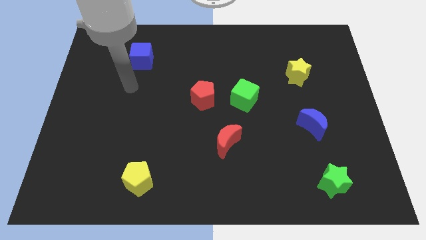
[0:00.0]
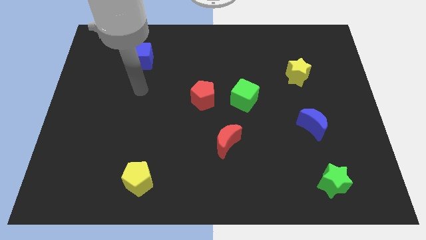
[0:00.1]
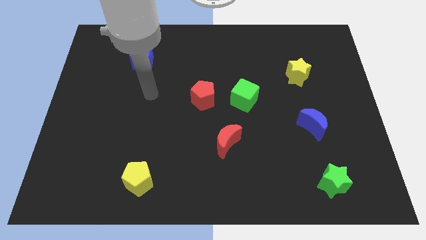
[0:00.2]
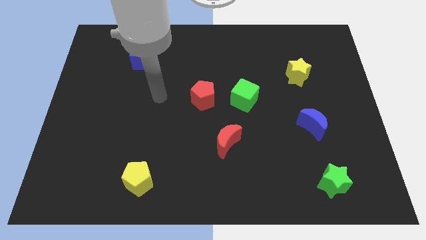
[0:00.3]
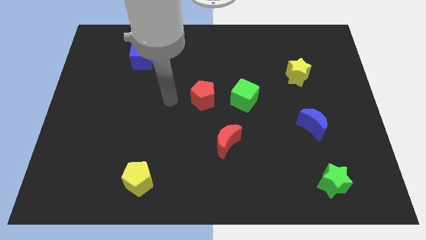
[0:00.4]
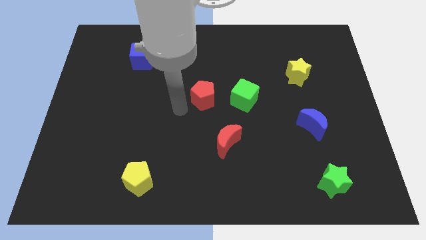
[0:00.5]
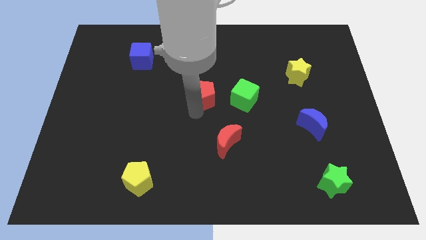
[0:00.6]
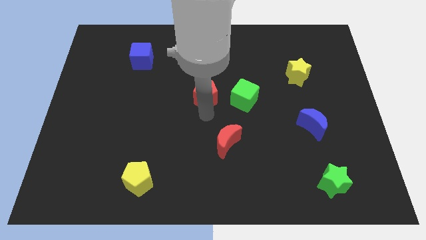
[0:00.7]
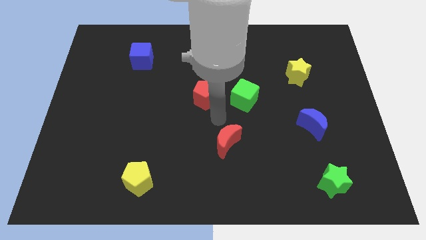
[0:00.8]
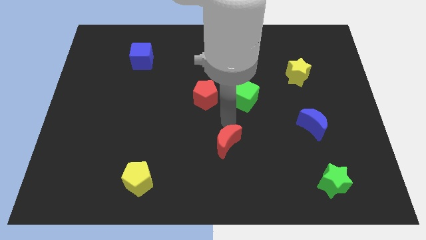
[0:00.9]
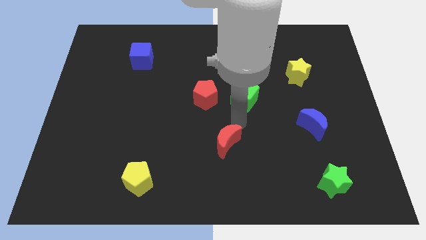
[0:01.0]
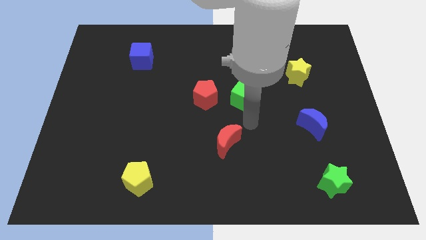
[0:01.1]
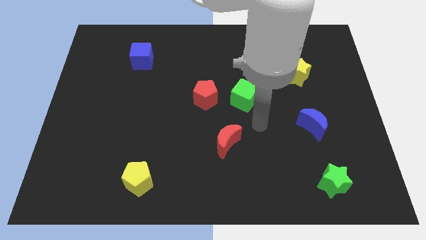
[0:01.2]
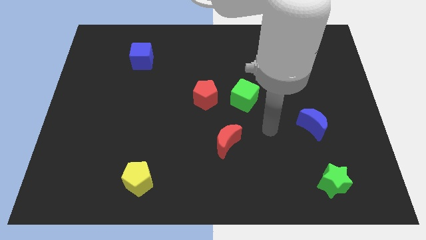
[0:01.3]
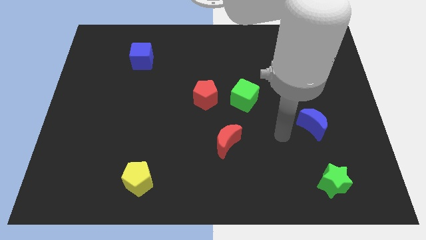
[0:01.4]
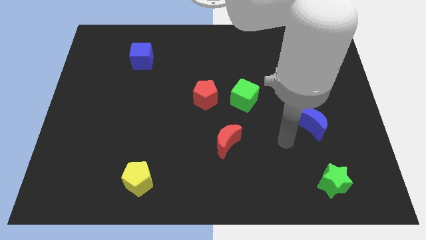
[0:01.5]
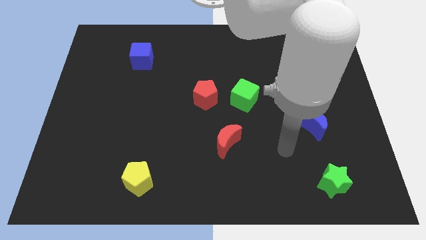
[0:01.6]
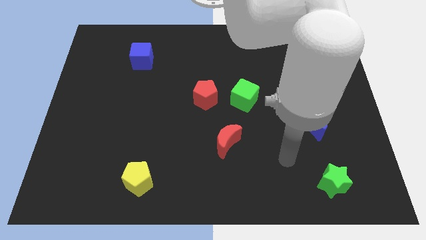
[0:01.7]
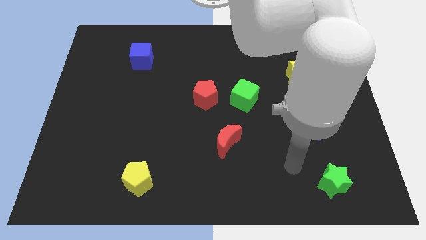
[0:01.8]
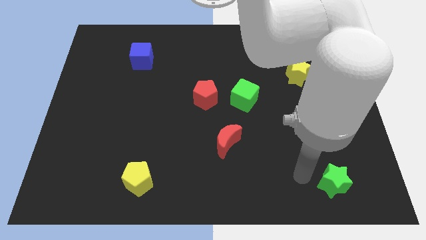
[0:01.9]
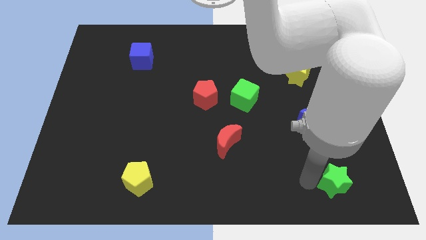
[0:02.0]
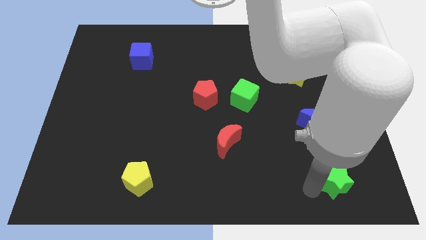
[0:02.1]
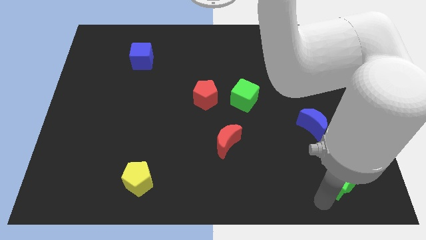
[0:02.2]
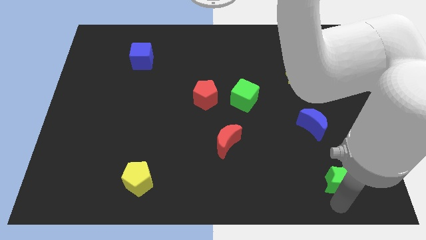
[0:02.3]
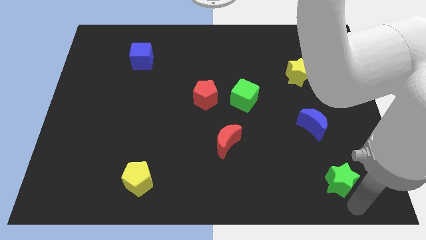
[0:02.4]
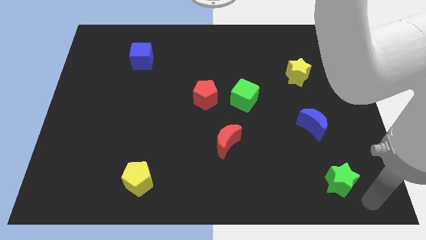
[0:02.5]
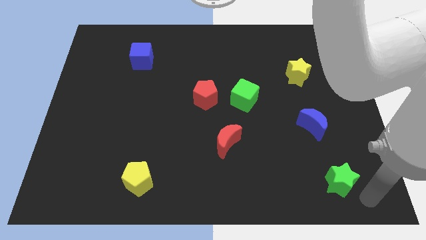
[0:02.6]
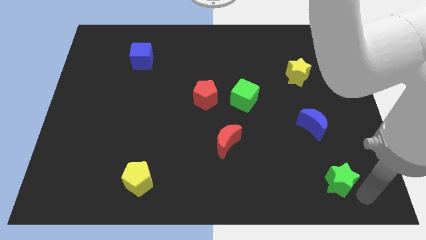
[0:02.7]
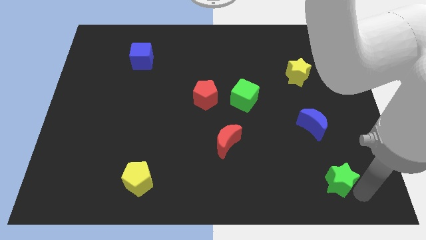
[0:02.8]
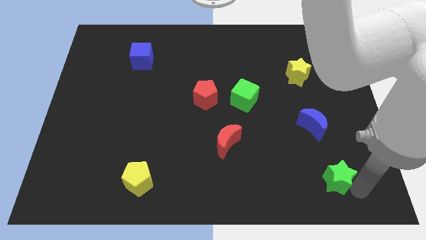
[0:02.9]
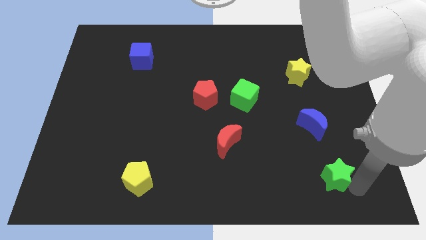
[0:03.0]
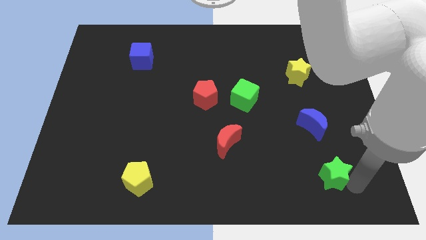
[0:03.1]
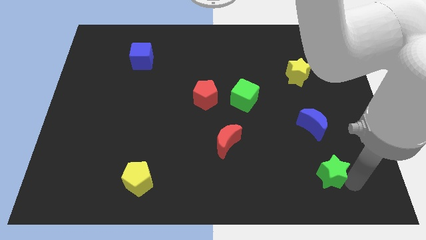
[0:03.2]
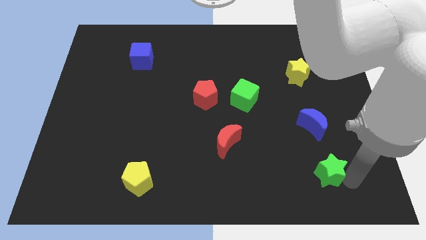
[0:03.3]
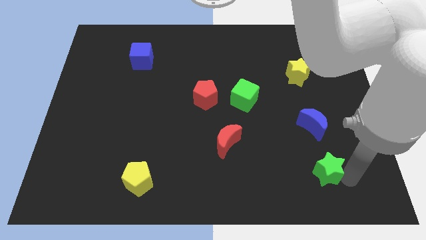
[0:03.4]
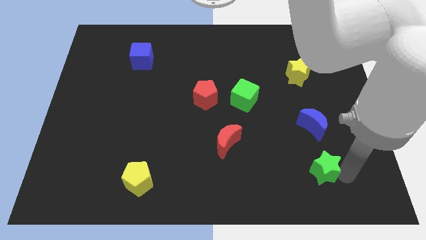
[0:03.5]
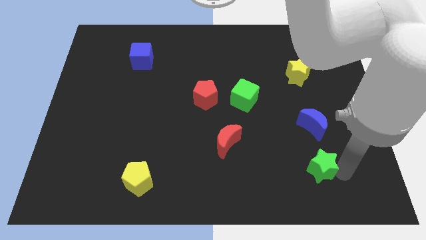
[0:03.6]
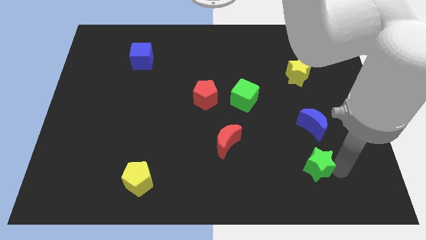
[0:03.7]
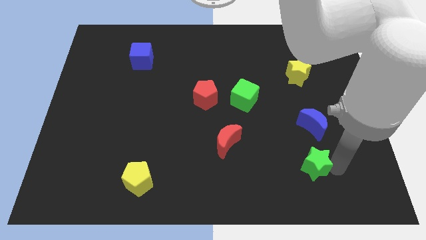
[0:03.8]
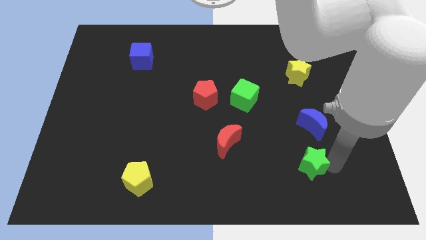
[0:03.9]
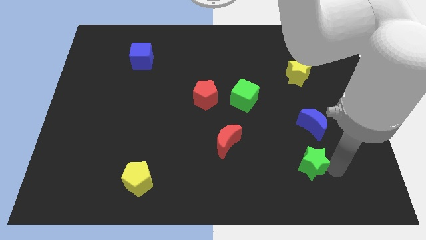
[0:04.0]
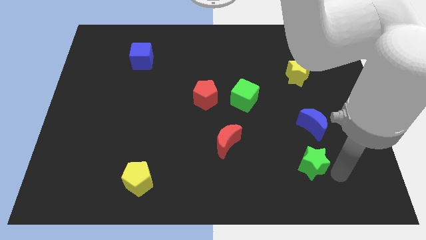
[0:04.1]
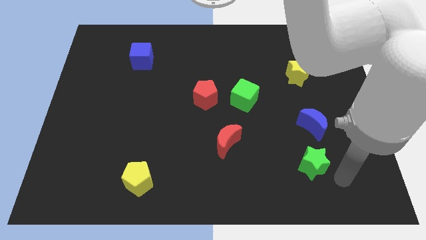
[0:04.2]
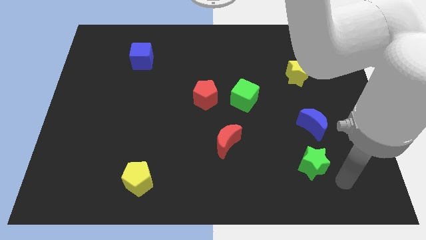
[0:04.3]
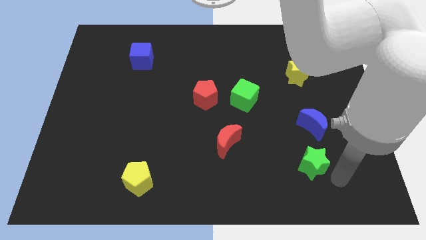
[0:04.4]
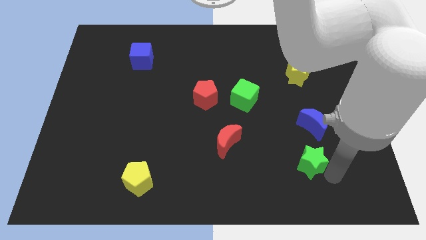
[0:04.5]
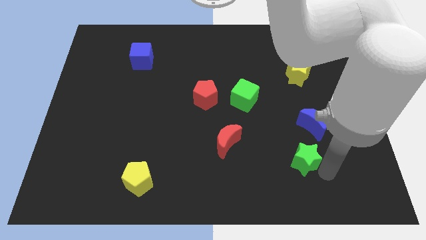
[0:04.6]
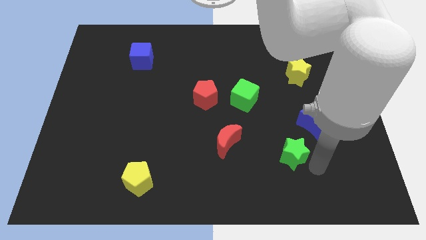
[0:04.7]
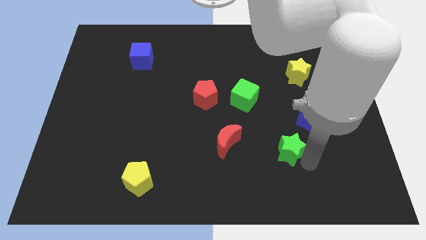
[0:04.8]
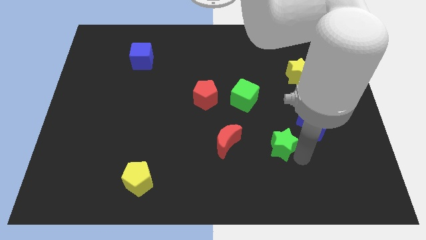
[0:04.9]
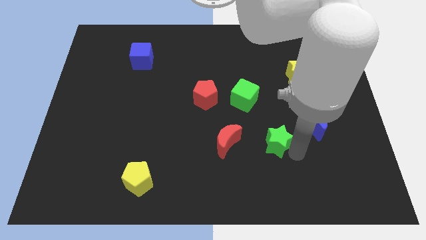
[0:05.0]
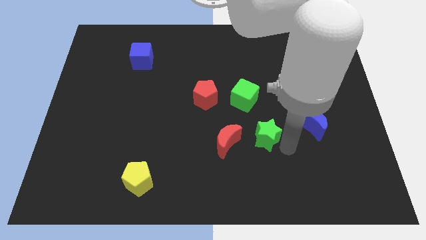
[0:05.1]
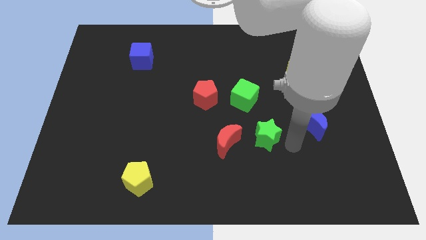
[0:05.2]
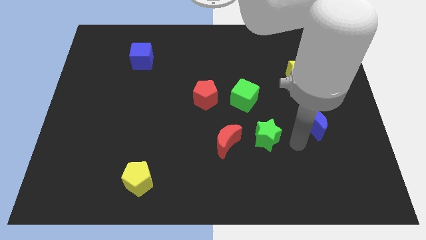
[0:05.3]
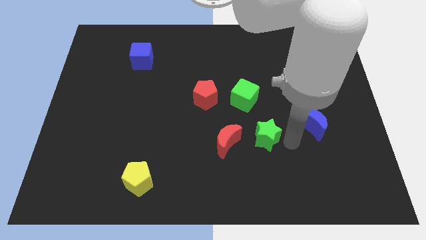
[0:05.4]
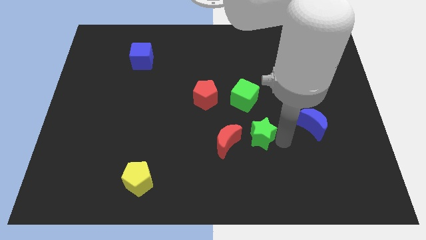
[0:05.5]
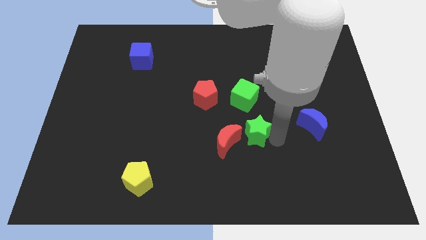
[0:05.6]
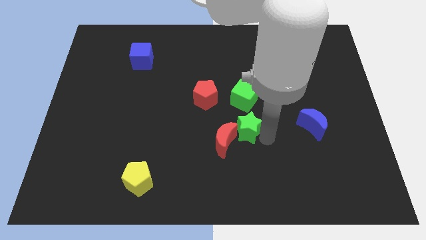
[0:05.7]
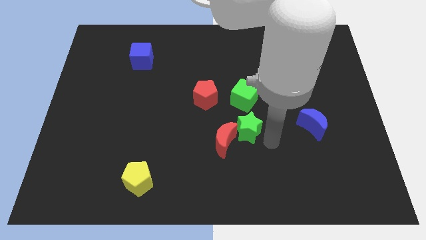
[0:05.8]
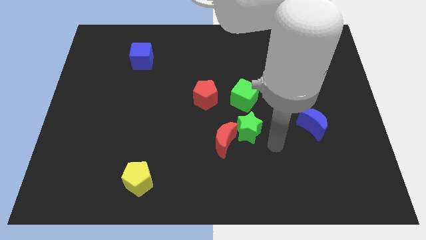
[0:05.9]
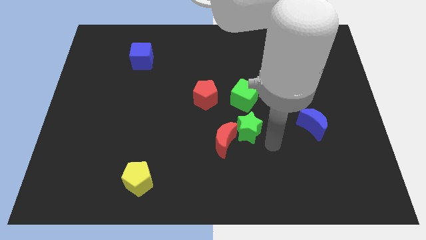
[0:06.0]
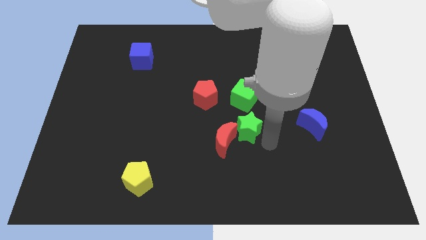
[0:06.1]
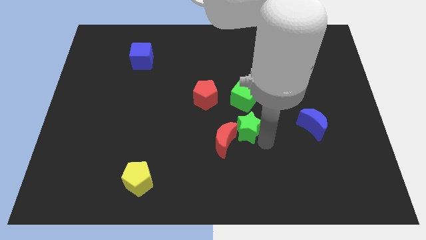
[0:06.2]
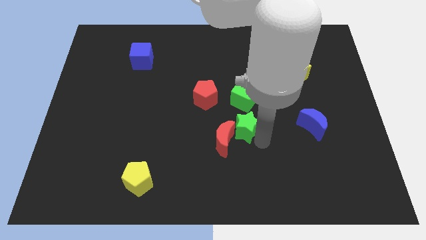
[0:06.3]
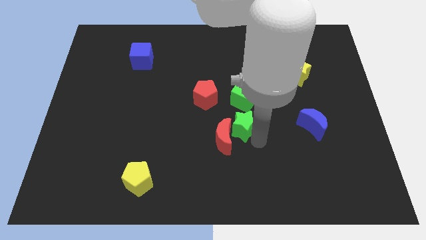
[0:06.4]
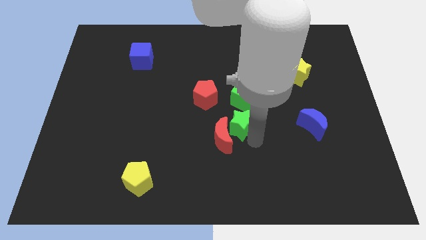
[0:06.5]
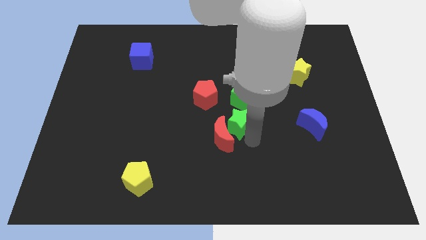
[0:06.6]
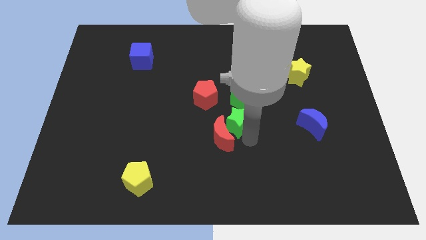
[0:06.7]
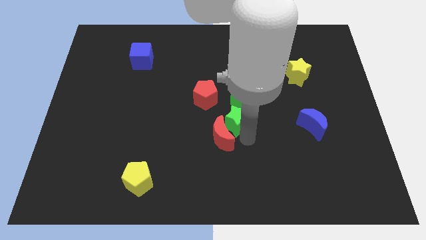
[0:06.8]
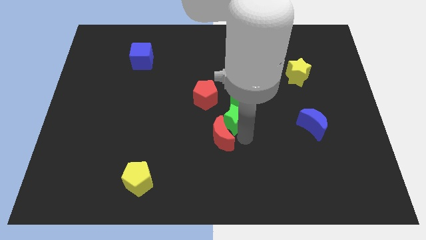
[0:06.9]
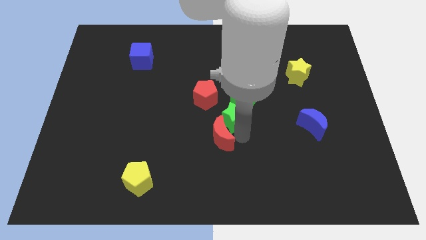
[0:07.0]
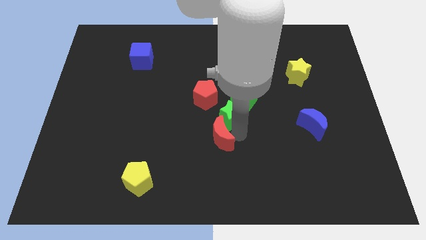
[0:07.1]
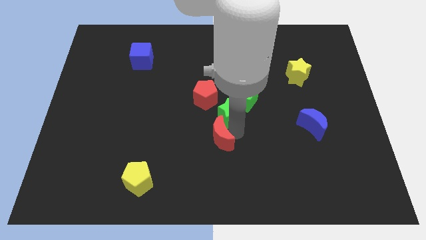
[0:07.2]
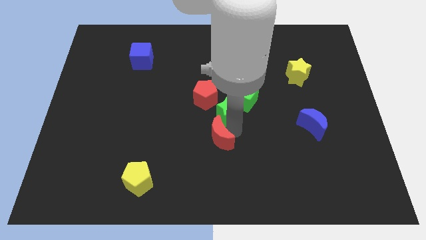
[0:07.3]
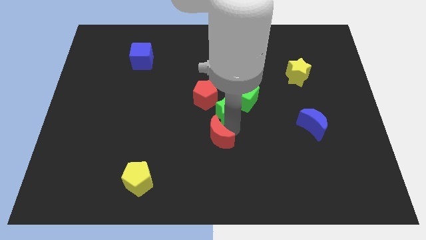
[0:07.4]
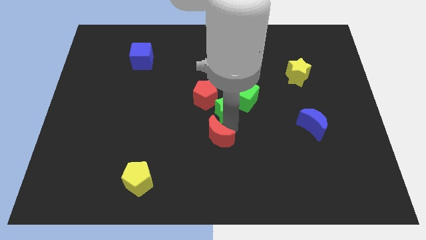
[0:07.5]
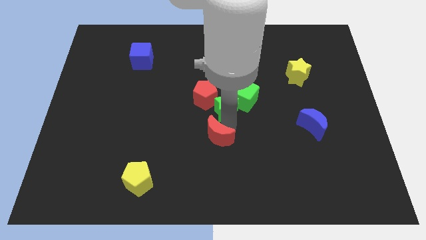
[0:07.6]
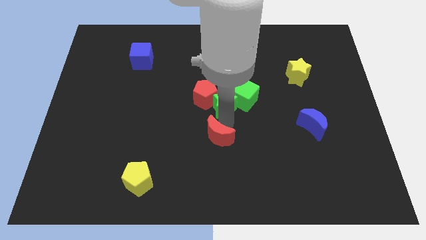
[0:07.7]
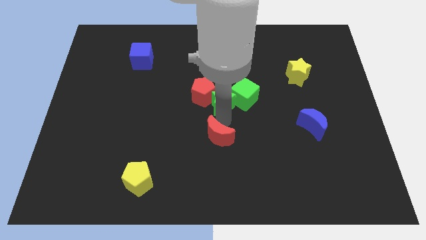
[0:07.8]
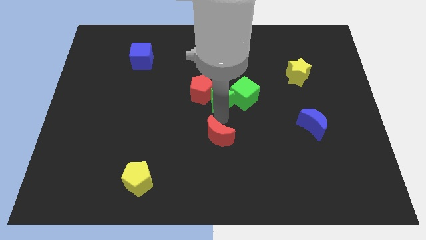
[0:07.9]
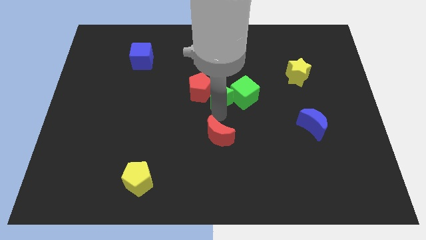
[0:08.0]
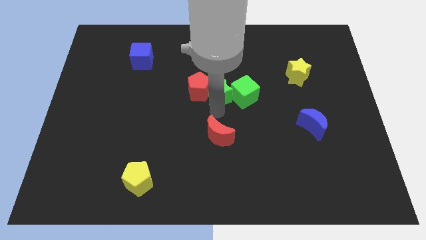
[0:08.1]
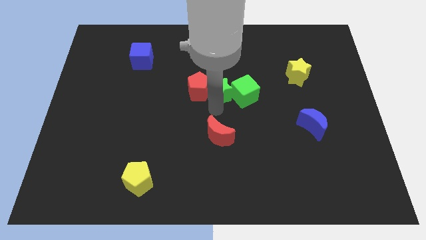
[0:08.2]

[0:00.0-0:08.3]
push the green star to the top right of the red pentagon
